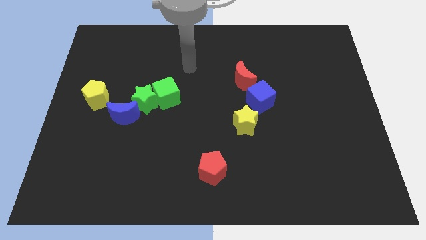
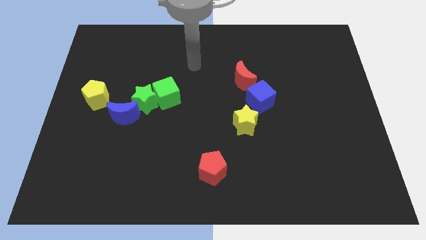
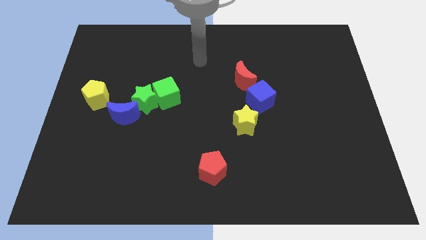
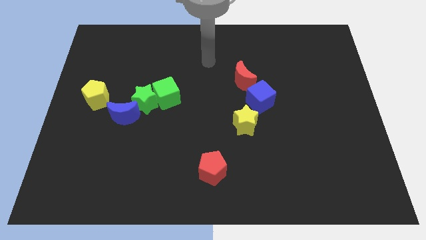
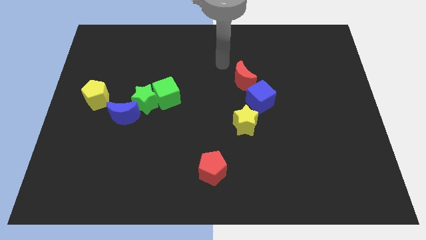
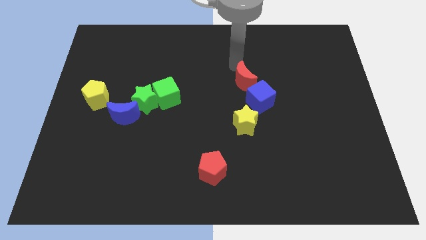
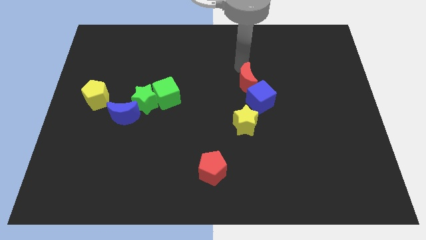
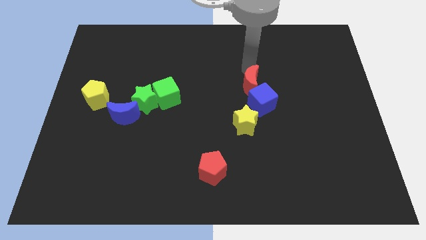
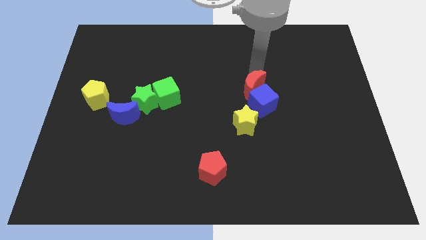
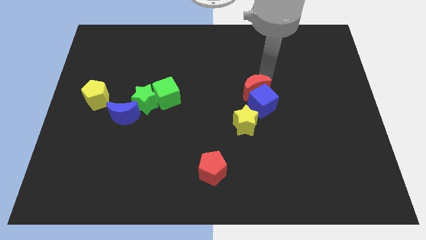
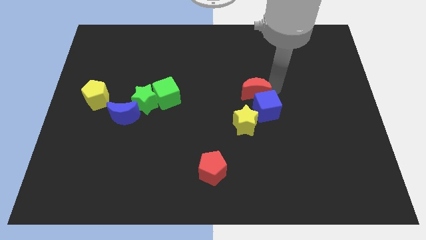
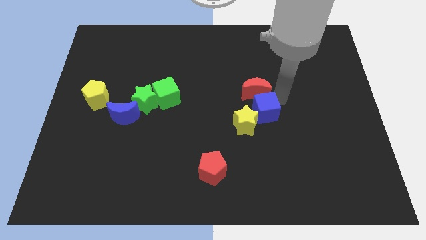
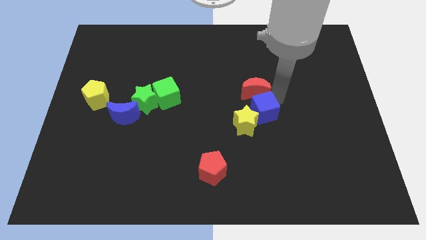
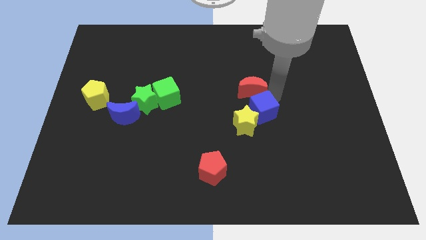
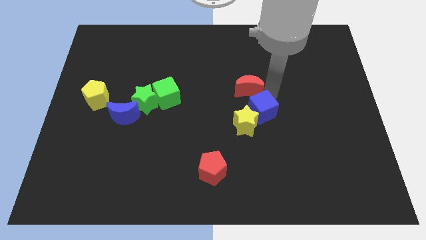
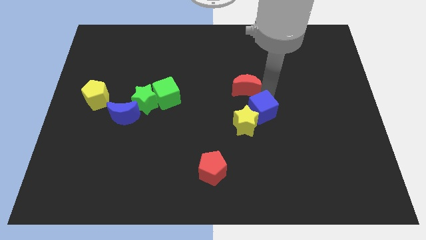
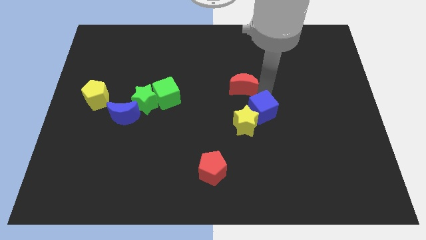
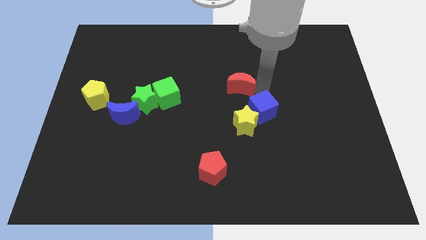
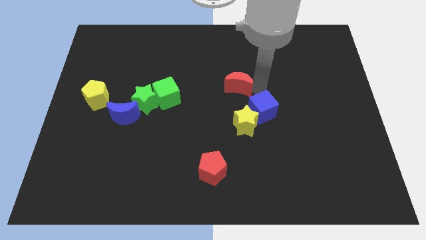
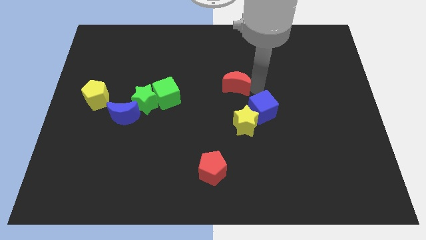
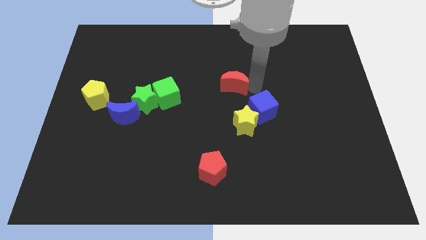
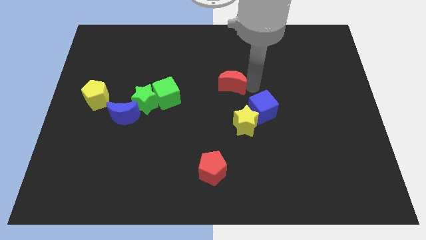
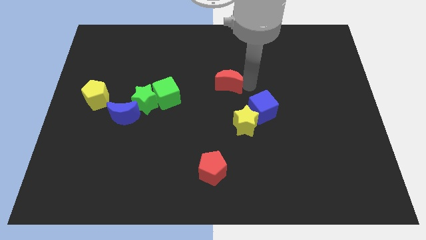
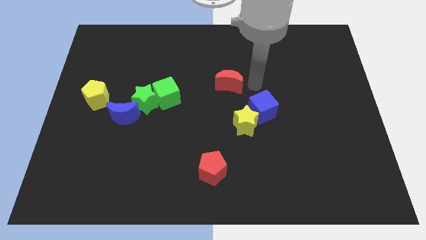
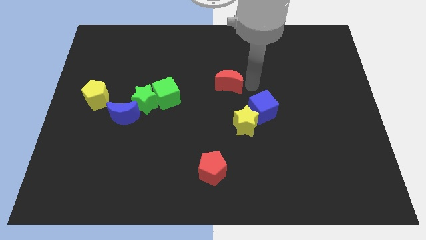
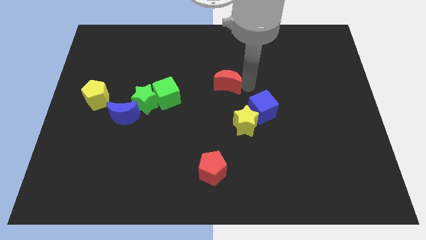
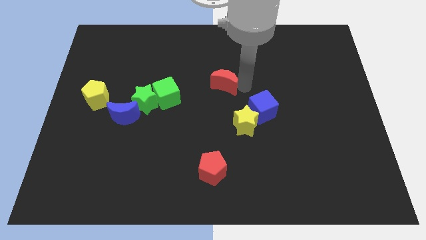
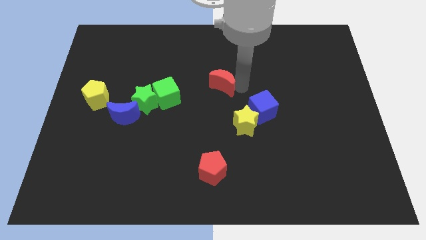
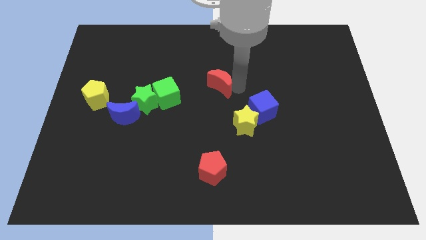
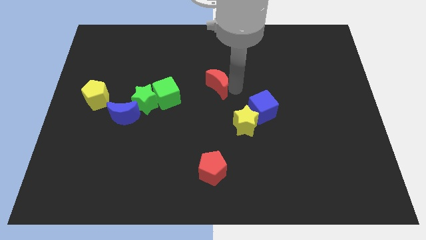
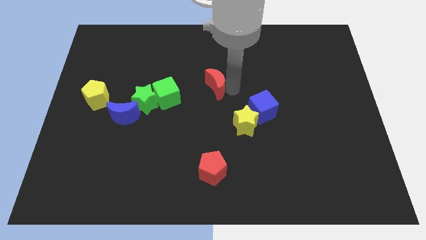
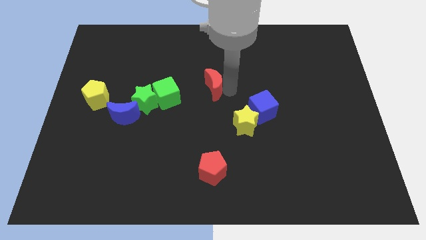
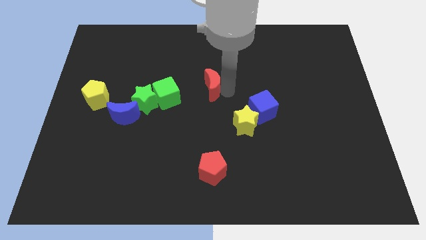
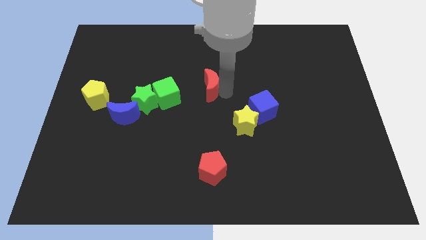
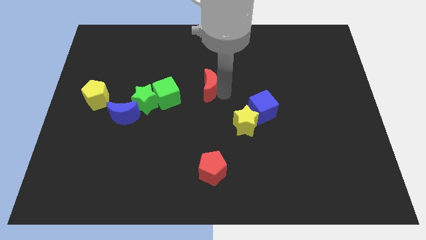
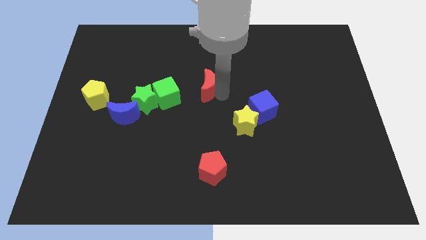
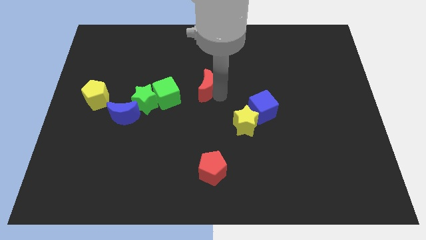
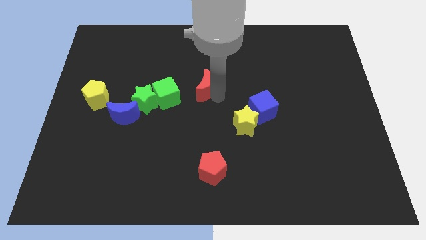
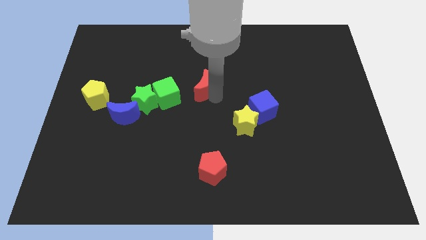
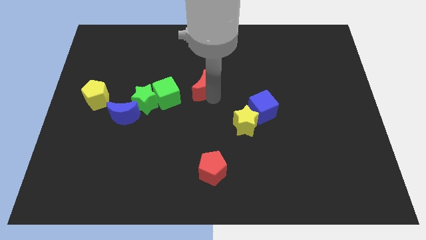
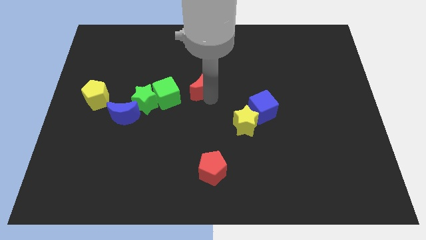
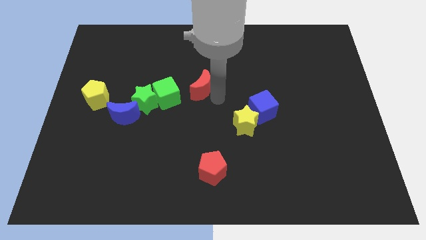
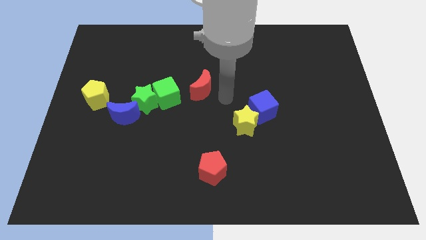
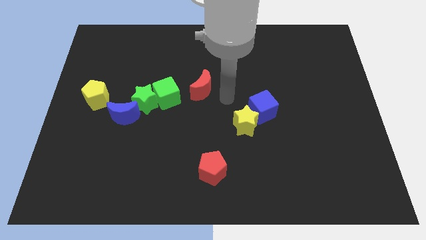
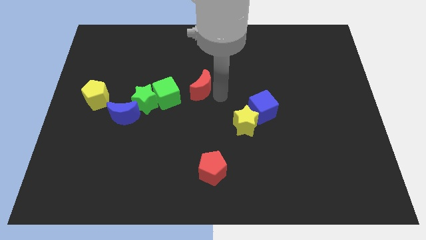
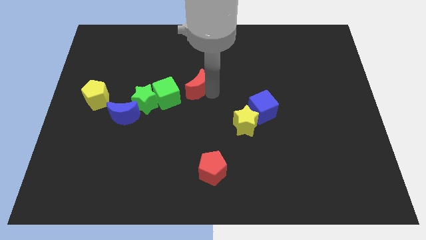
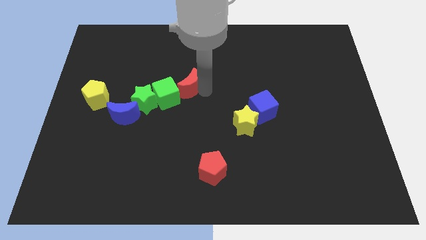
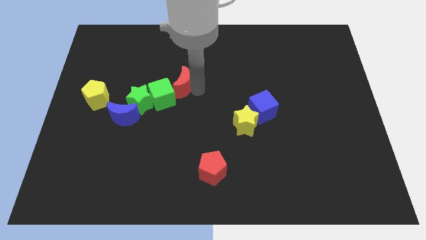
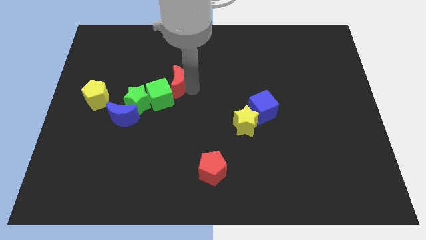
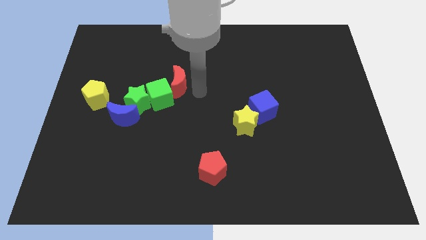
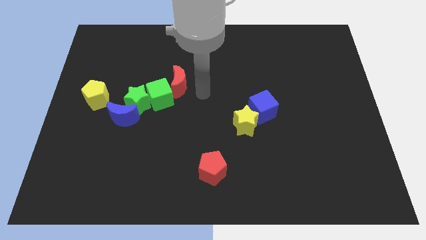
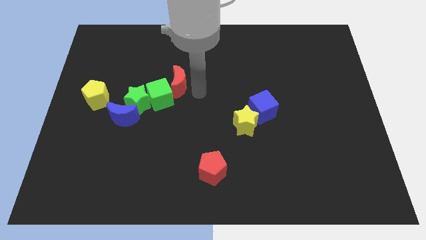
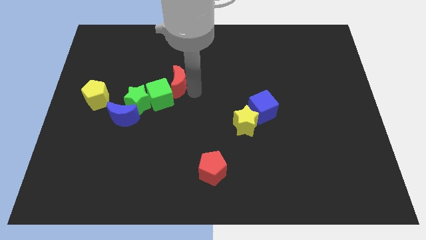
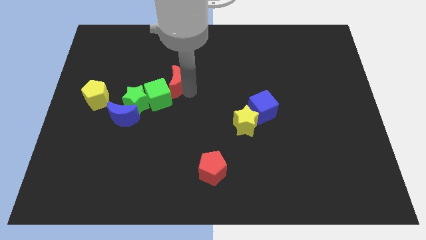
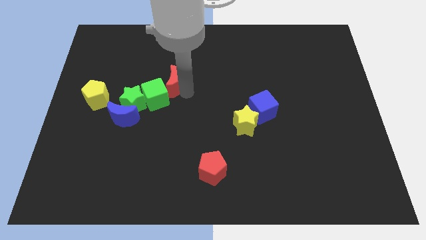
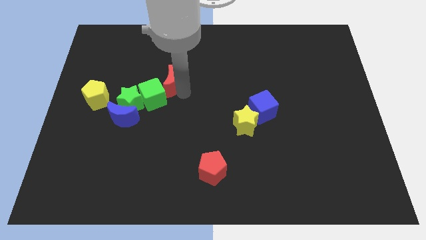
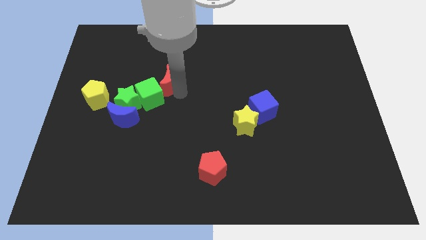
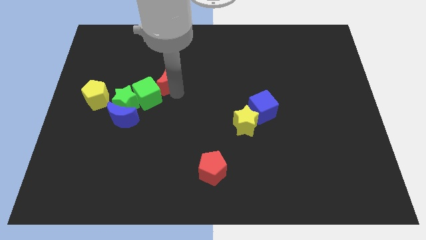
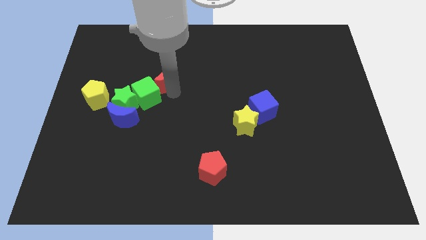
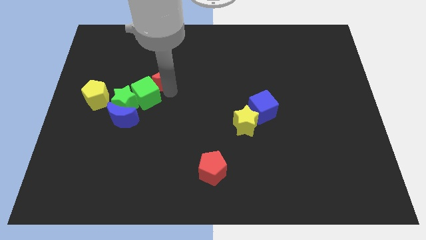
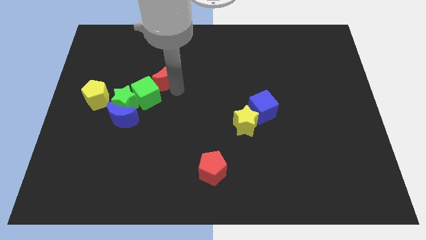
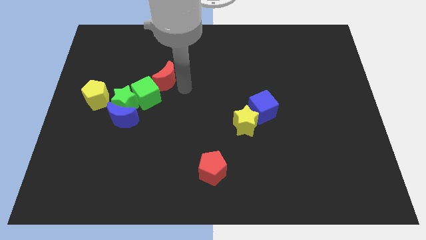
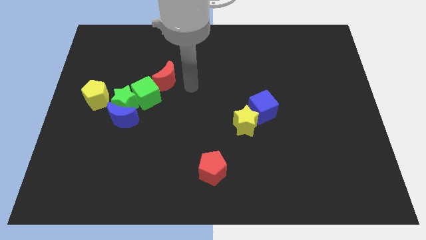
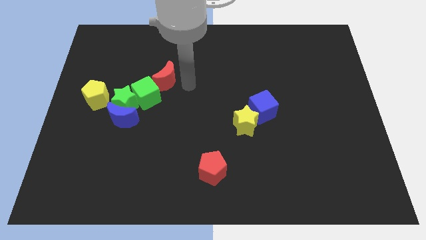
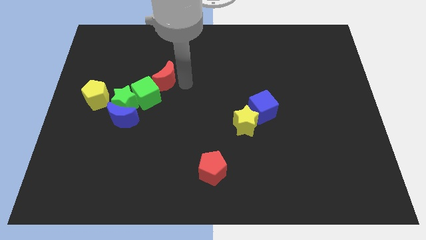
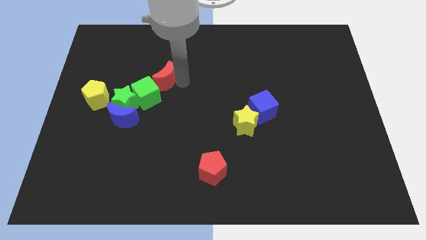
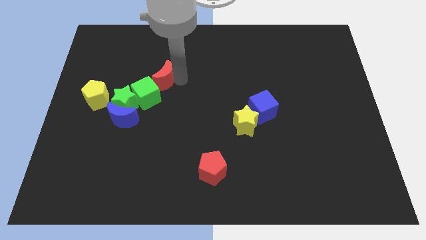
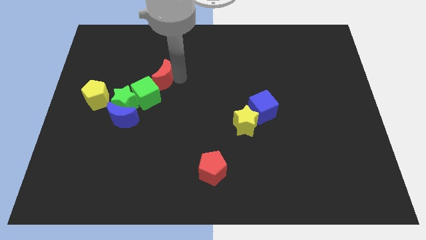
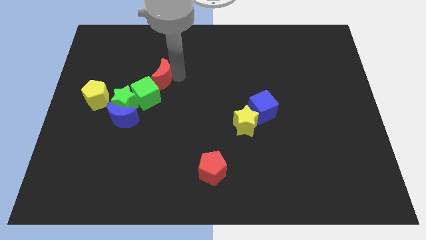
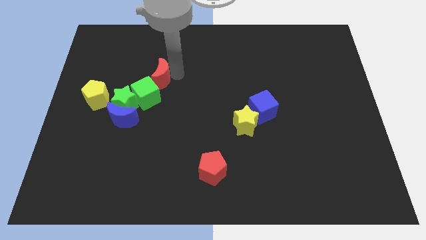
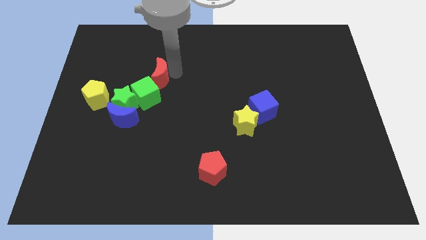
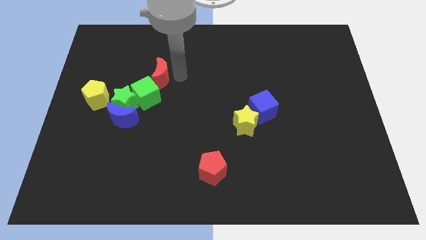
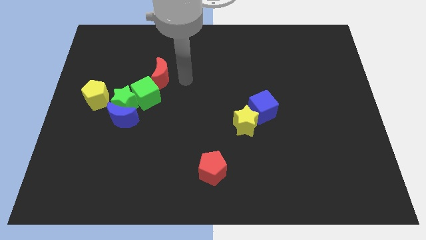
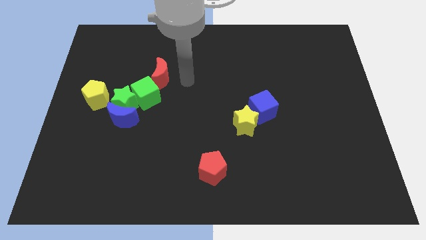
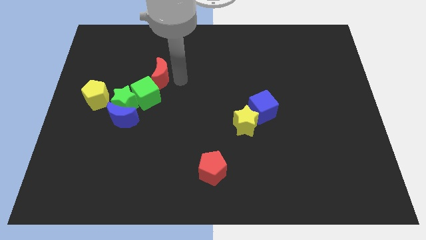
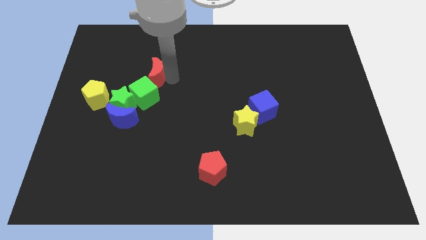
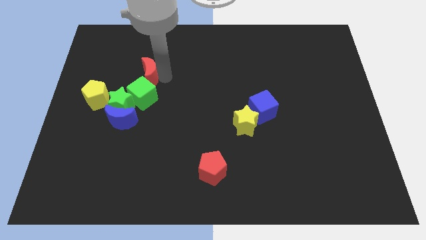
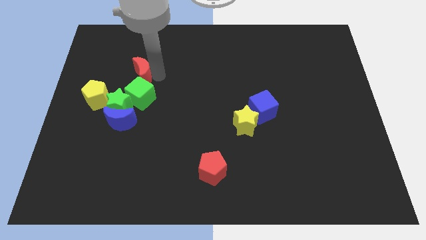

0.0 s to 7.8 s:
push the red moon to the top of the green star

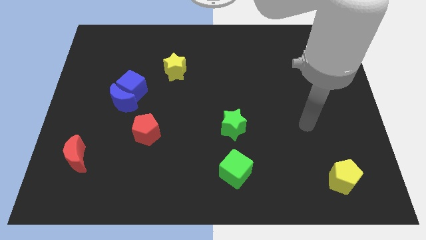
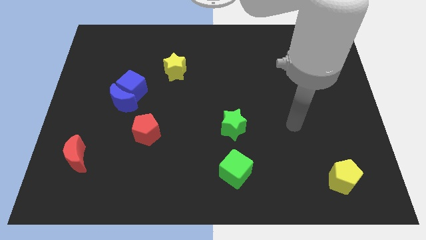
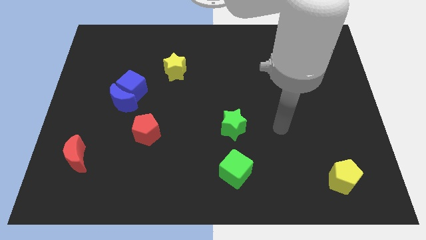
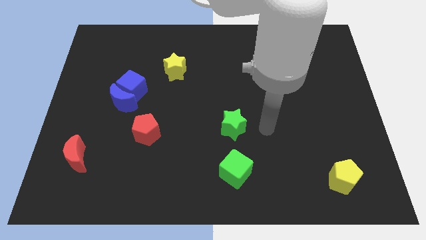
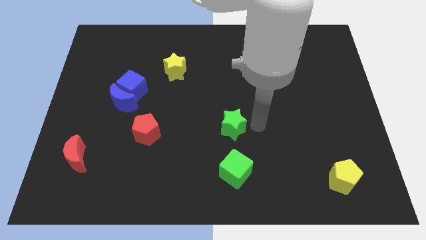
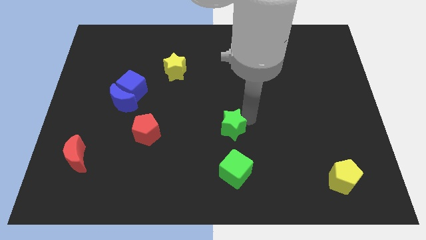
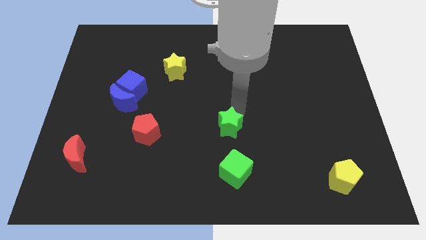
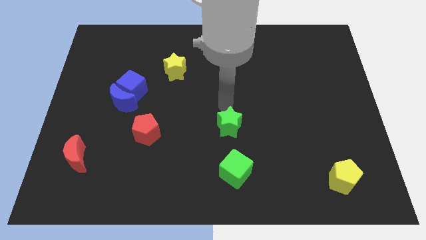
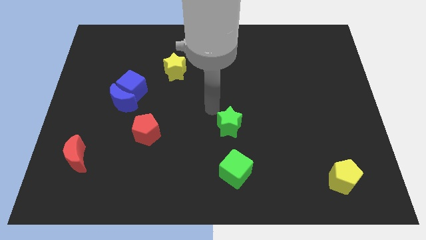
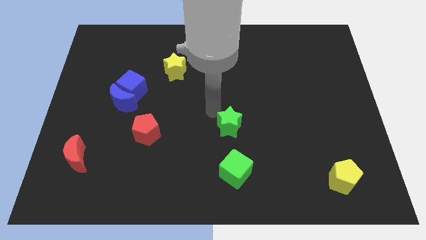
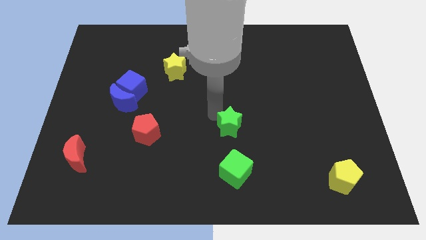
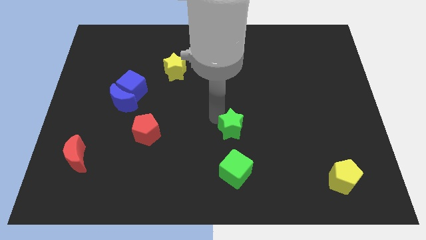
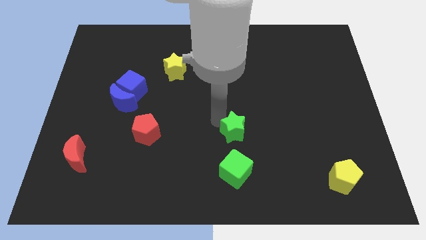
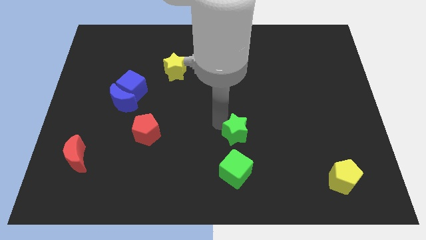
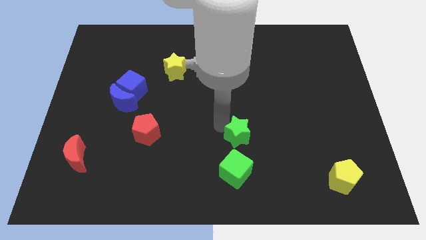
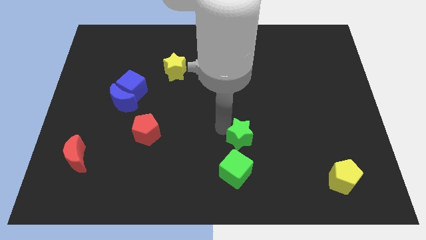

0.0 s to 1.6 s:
put the green star to the top right of the green cube
